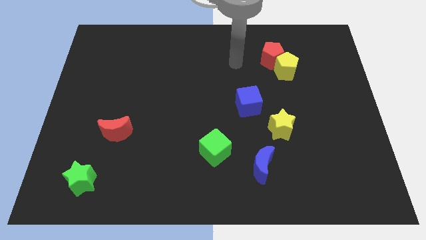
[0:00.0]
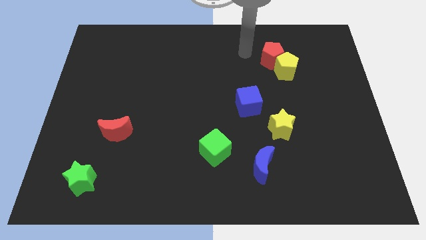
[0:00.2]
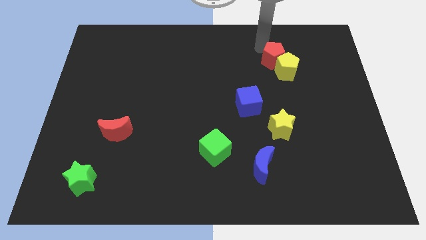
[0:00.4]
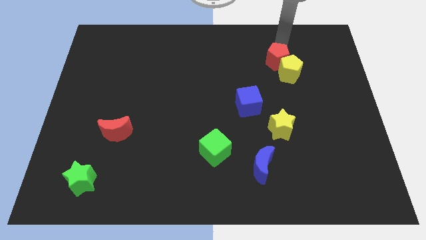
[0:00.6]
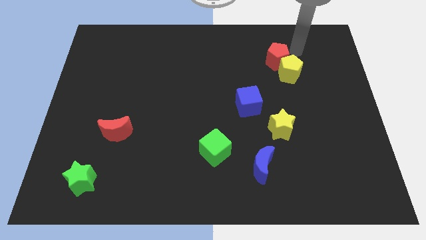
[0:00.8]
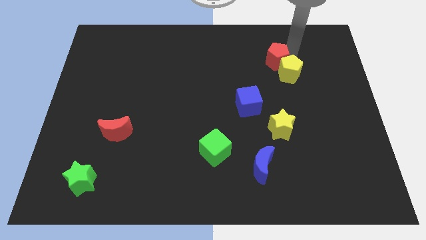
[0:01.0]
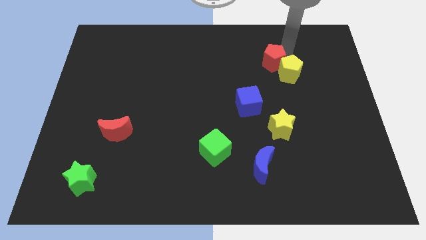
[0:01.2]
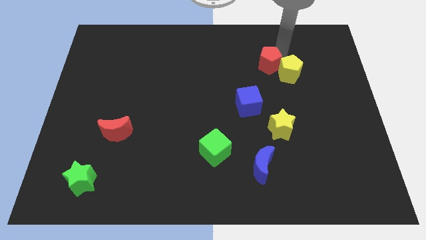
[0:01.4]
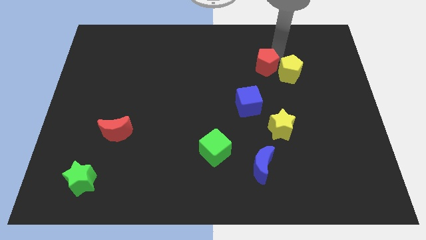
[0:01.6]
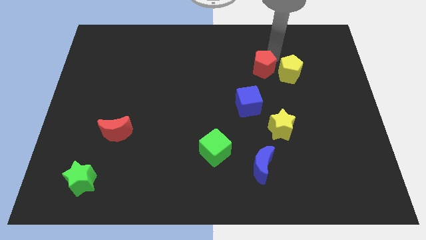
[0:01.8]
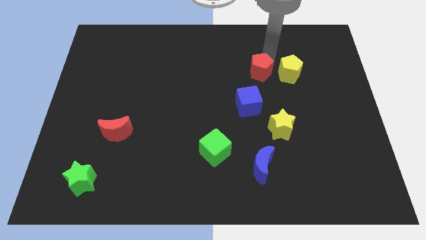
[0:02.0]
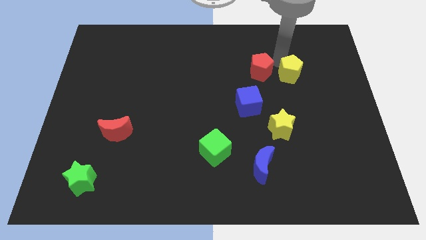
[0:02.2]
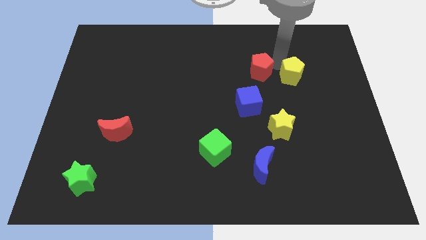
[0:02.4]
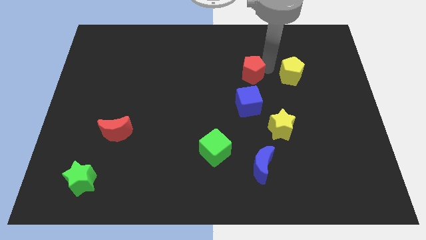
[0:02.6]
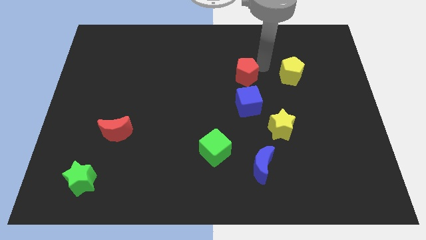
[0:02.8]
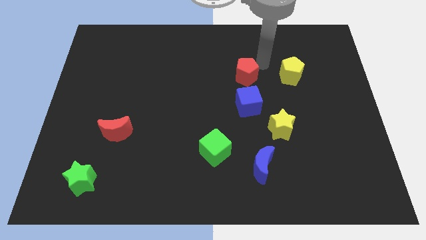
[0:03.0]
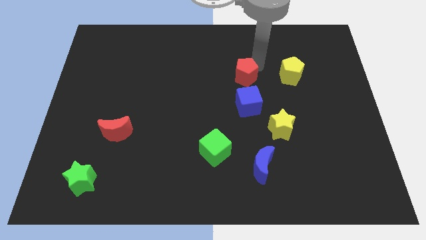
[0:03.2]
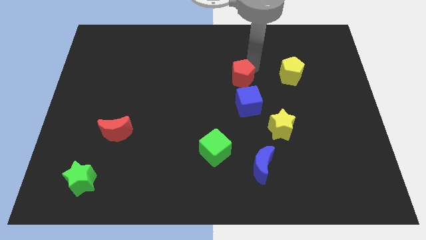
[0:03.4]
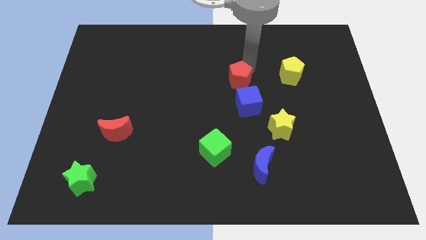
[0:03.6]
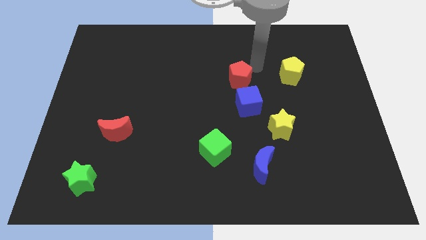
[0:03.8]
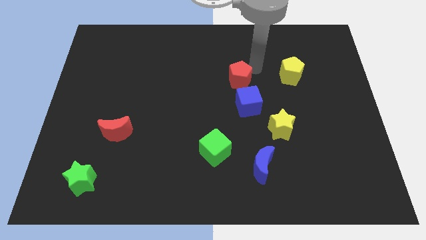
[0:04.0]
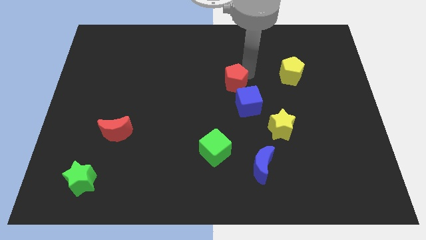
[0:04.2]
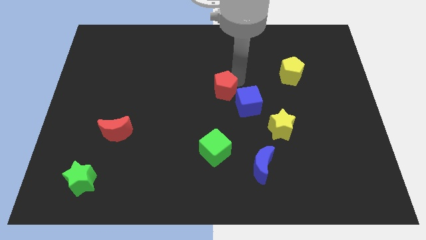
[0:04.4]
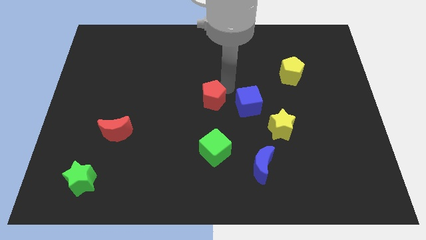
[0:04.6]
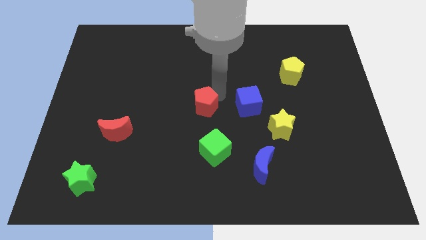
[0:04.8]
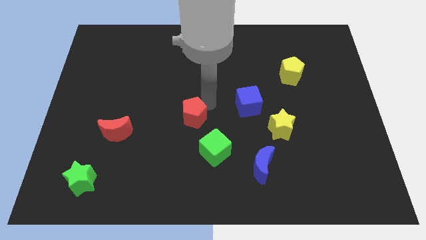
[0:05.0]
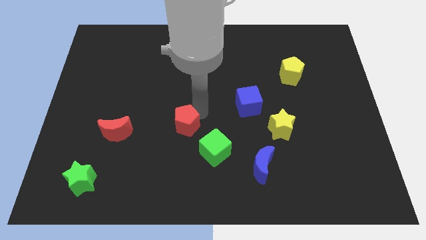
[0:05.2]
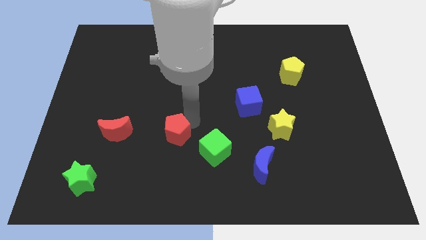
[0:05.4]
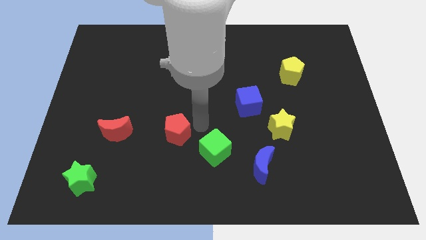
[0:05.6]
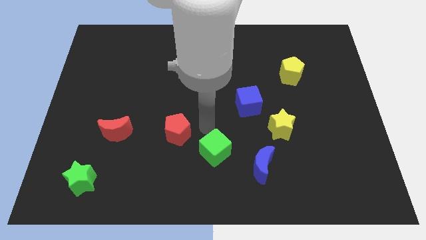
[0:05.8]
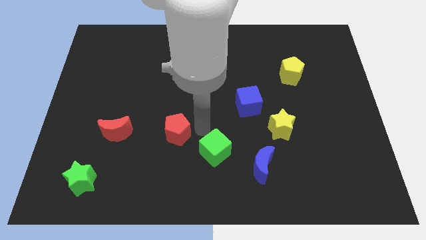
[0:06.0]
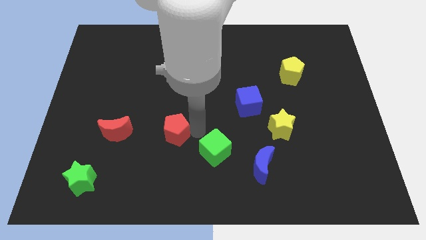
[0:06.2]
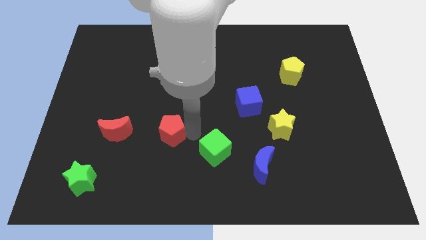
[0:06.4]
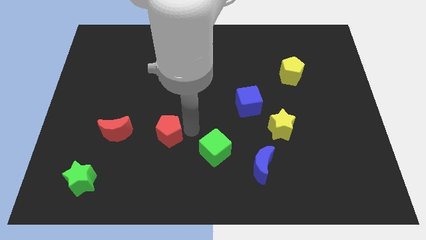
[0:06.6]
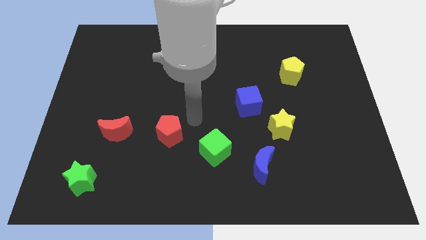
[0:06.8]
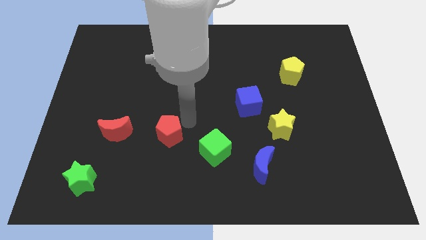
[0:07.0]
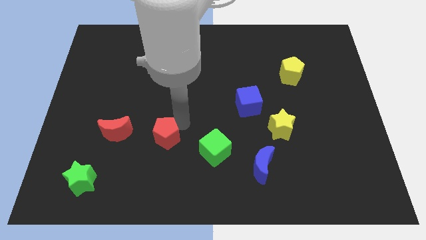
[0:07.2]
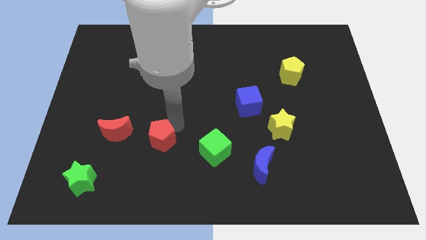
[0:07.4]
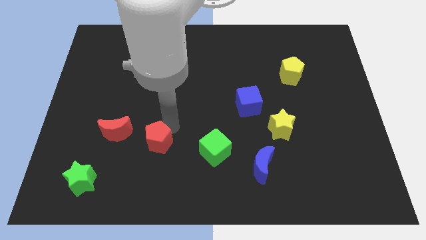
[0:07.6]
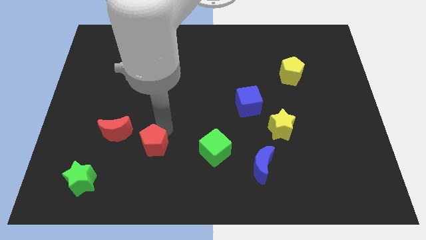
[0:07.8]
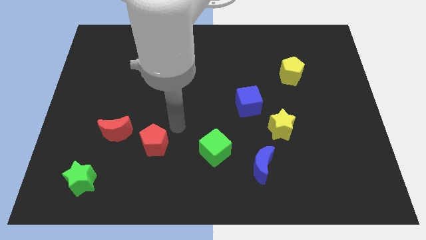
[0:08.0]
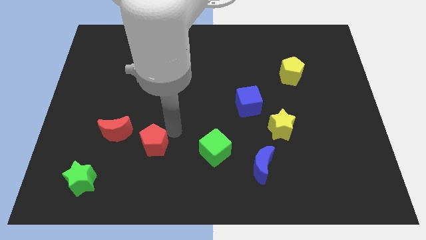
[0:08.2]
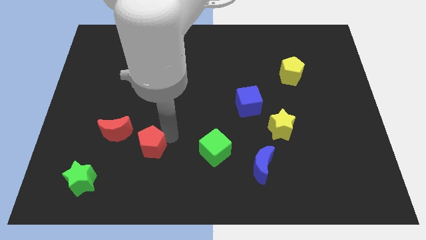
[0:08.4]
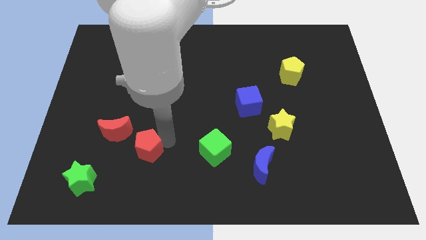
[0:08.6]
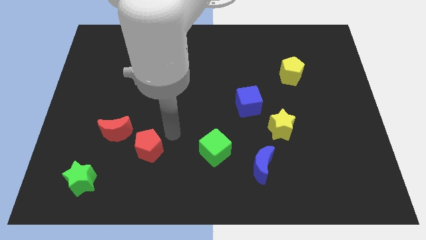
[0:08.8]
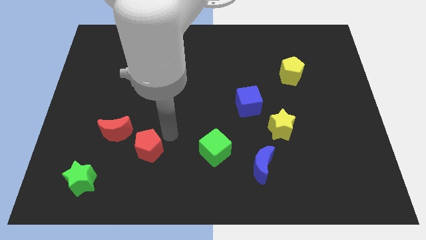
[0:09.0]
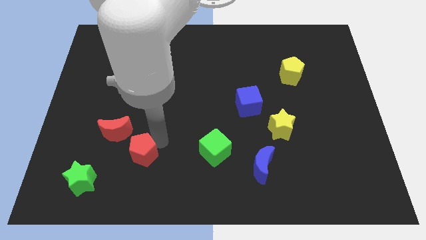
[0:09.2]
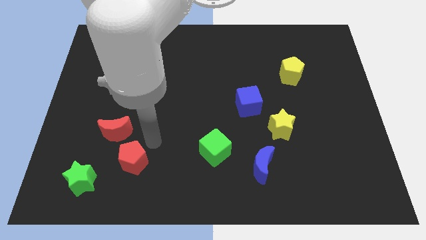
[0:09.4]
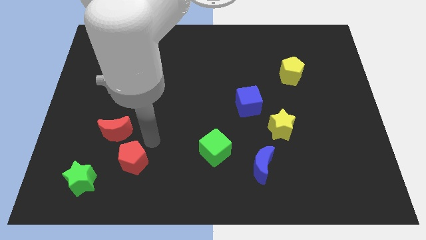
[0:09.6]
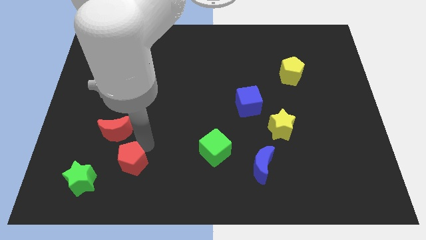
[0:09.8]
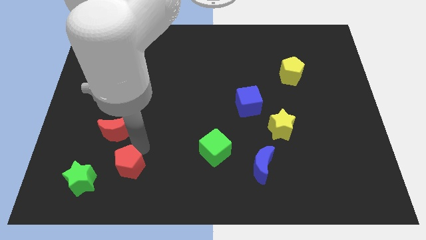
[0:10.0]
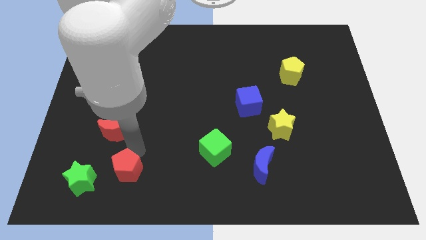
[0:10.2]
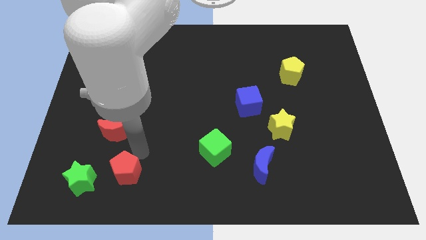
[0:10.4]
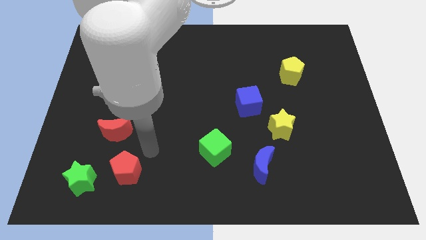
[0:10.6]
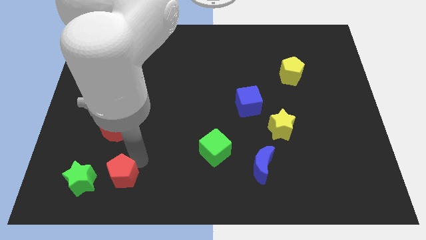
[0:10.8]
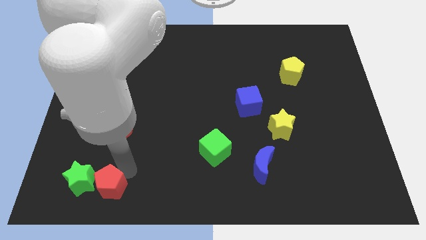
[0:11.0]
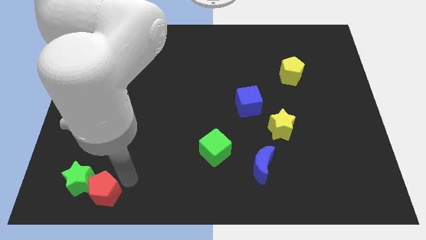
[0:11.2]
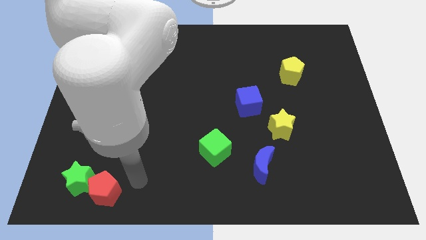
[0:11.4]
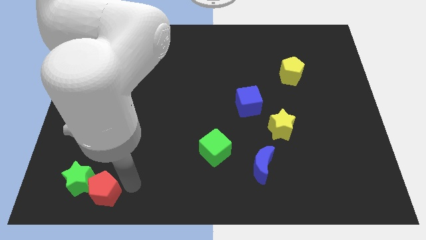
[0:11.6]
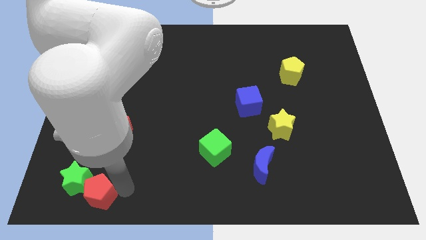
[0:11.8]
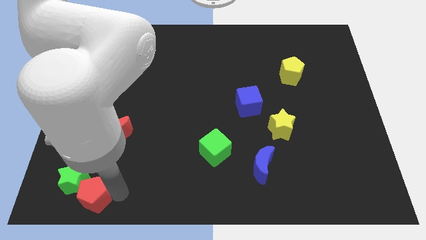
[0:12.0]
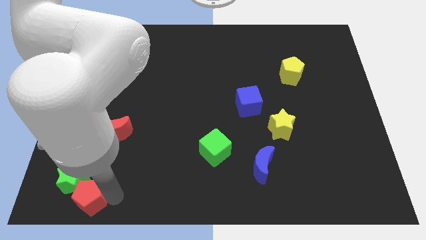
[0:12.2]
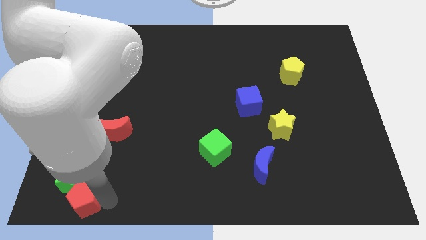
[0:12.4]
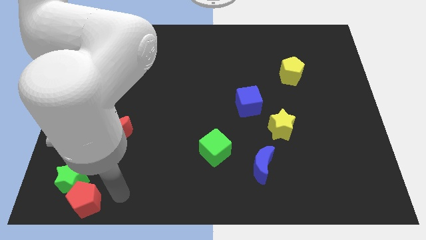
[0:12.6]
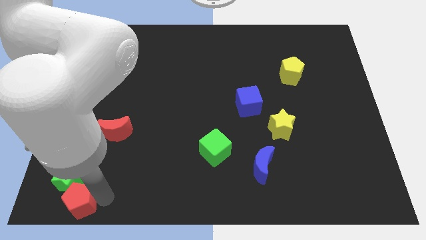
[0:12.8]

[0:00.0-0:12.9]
push the red pentagon to the lower left corner
